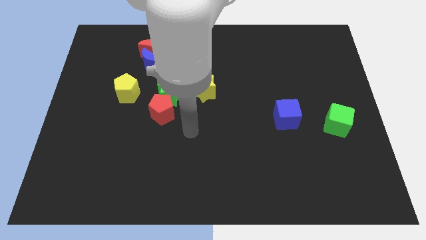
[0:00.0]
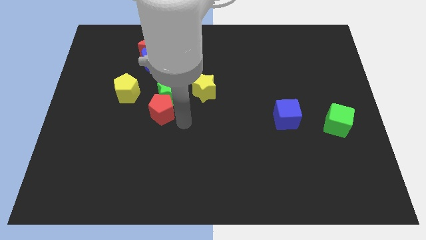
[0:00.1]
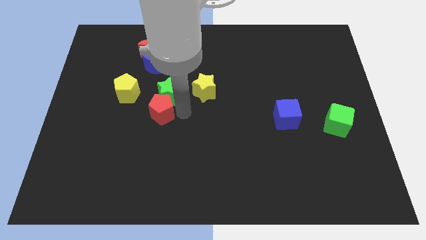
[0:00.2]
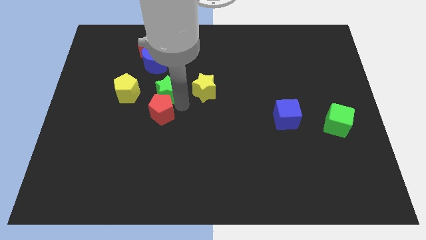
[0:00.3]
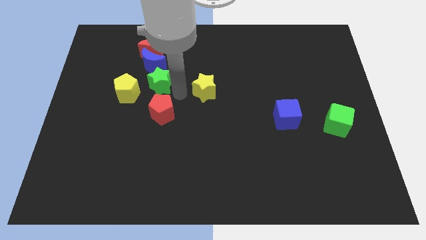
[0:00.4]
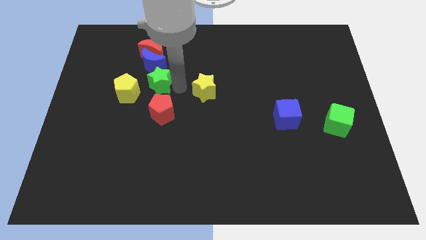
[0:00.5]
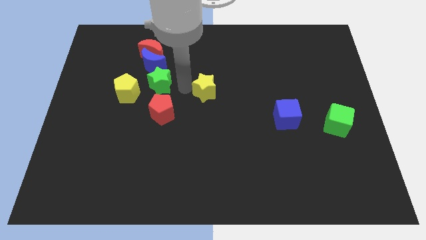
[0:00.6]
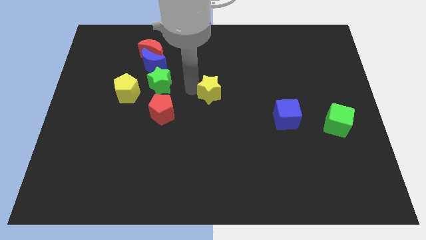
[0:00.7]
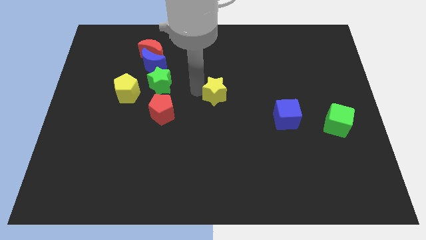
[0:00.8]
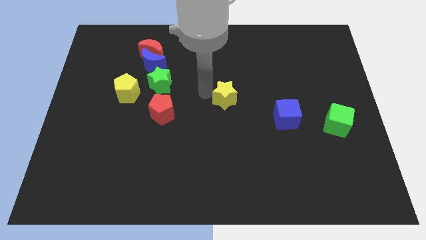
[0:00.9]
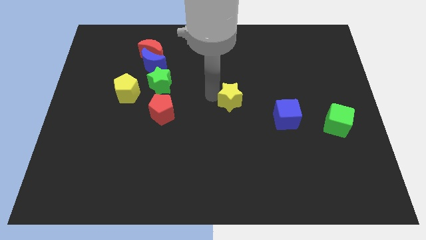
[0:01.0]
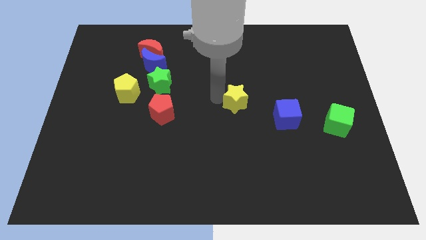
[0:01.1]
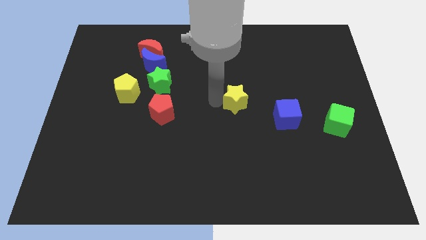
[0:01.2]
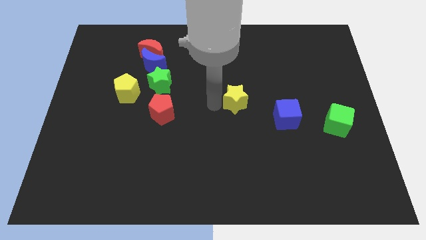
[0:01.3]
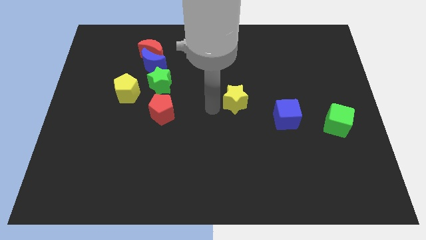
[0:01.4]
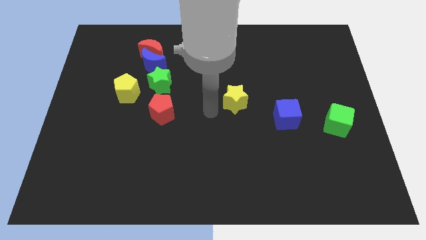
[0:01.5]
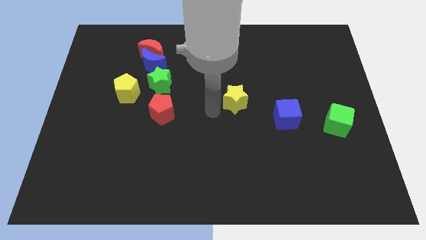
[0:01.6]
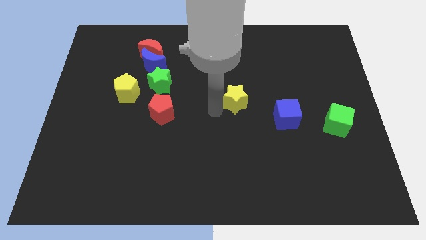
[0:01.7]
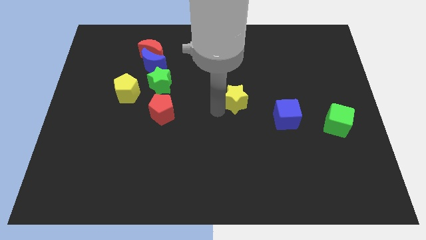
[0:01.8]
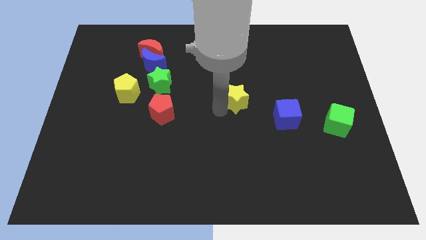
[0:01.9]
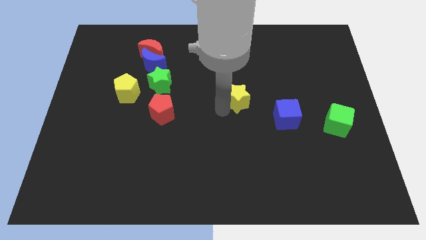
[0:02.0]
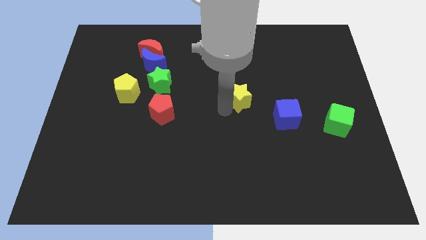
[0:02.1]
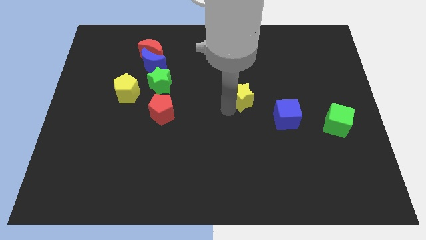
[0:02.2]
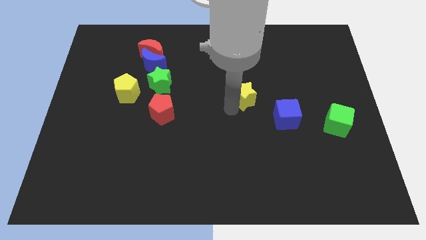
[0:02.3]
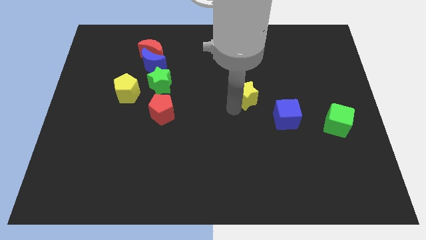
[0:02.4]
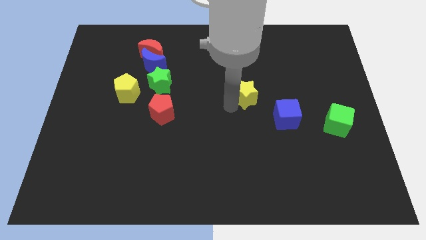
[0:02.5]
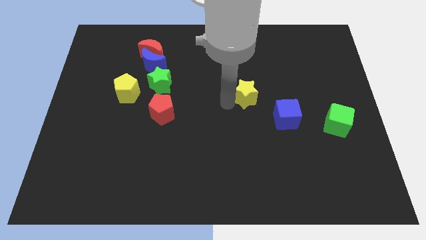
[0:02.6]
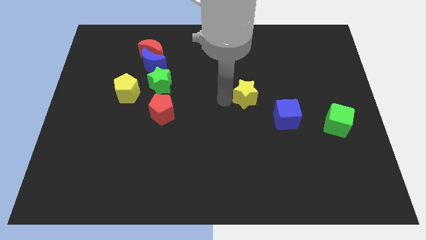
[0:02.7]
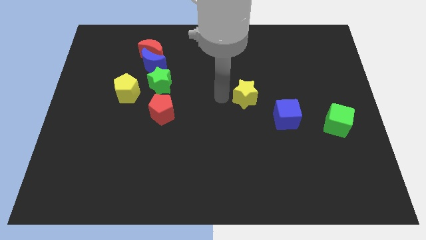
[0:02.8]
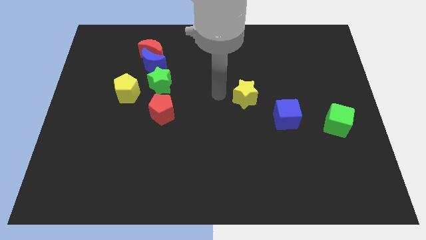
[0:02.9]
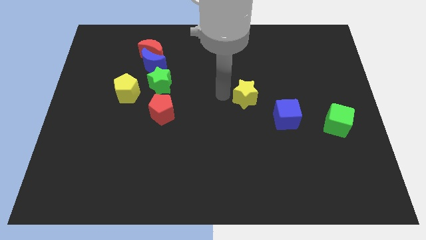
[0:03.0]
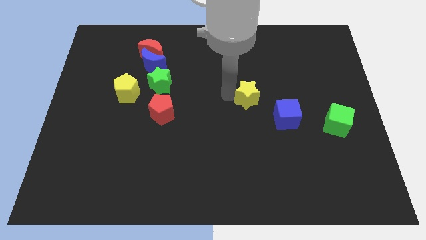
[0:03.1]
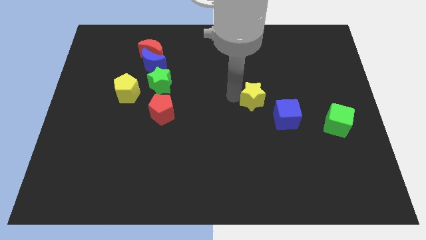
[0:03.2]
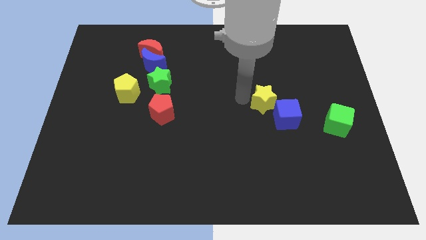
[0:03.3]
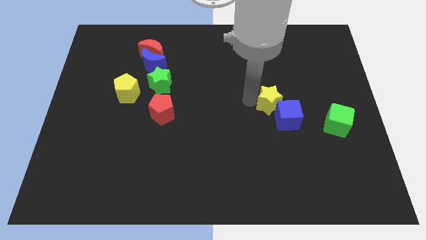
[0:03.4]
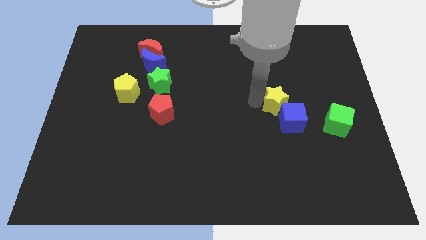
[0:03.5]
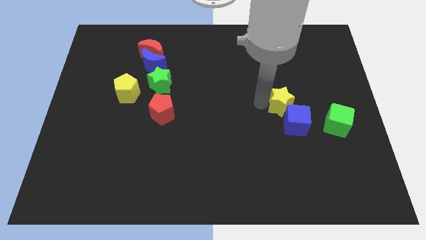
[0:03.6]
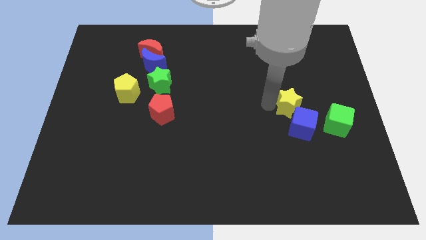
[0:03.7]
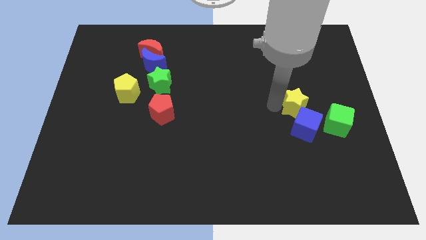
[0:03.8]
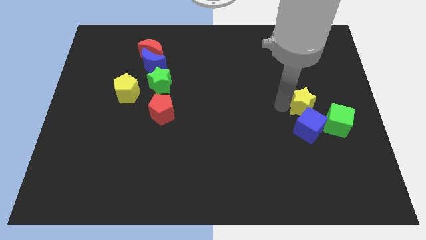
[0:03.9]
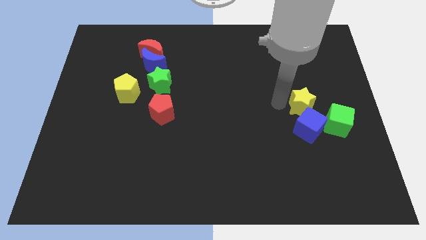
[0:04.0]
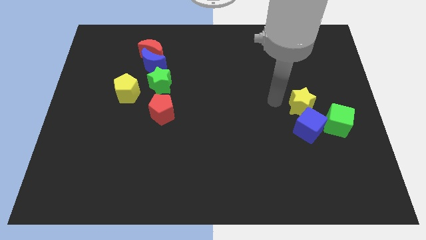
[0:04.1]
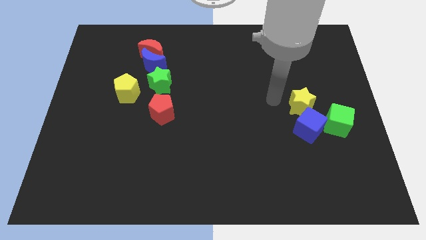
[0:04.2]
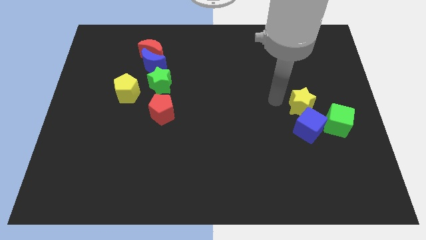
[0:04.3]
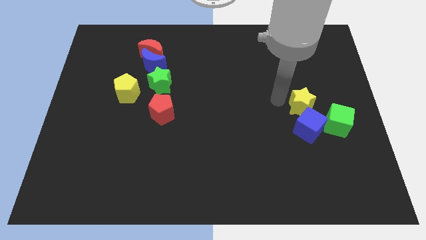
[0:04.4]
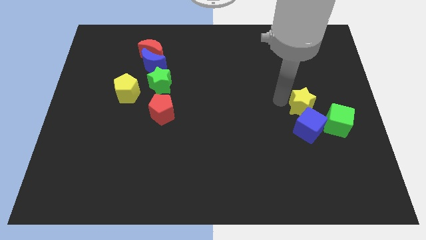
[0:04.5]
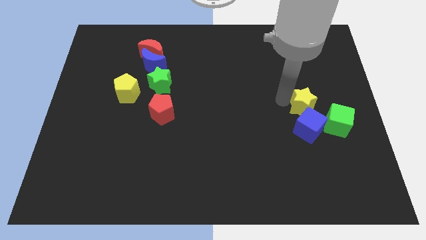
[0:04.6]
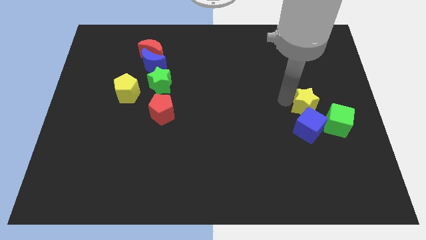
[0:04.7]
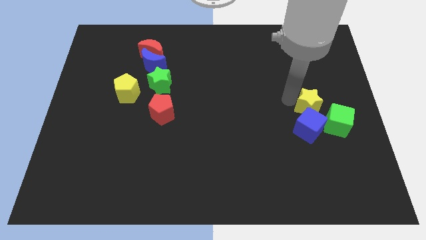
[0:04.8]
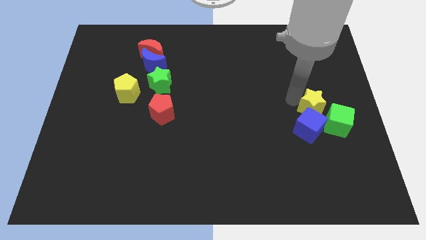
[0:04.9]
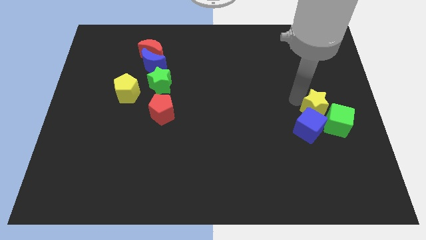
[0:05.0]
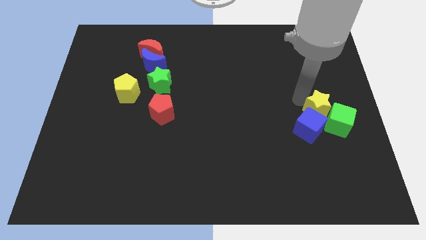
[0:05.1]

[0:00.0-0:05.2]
slide the yellow star to the green cube

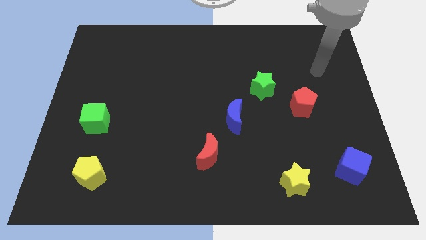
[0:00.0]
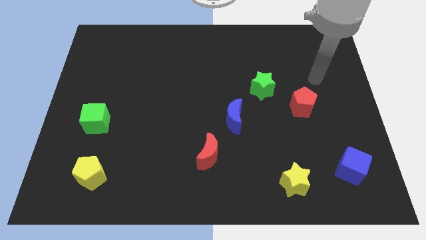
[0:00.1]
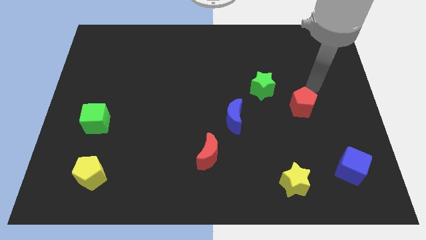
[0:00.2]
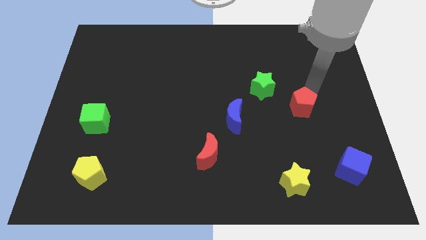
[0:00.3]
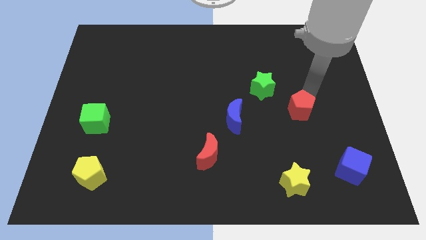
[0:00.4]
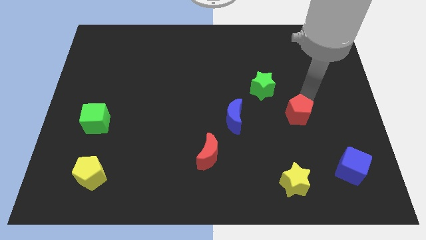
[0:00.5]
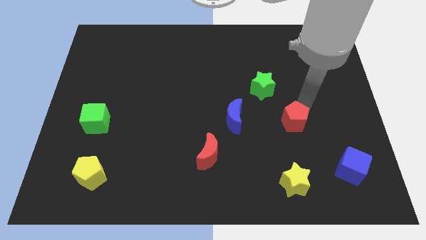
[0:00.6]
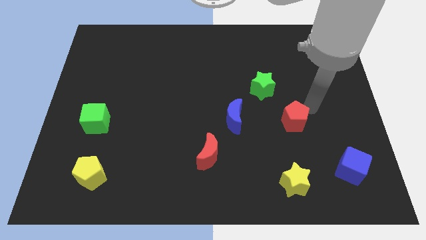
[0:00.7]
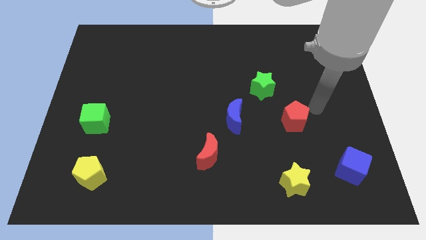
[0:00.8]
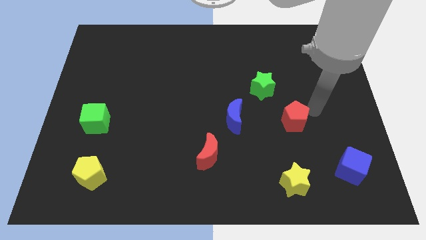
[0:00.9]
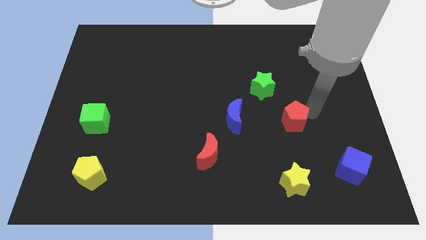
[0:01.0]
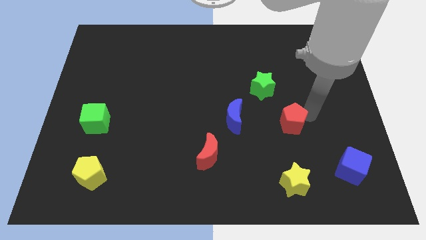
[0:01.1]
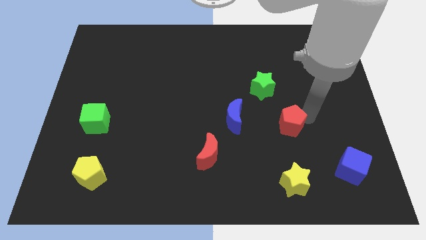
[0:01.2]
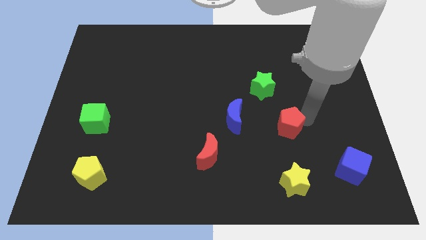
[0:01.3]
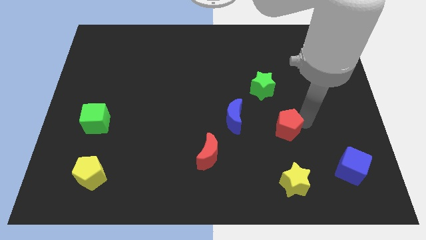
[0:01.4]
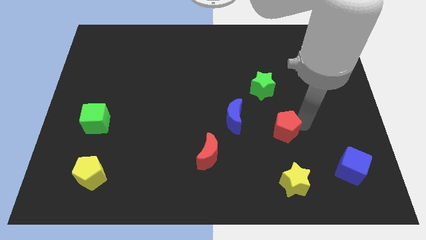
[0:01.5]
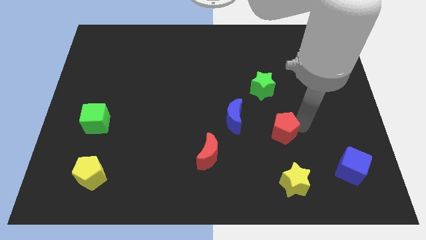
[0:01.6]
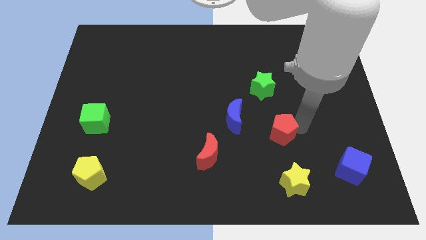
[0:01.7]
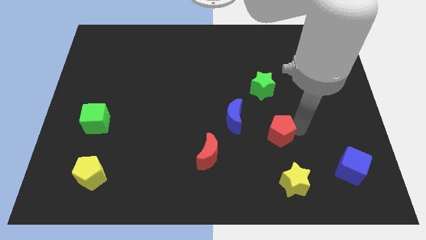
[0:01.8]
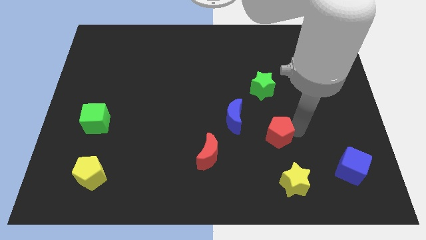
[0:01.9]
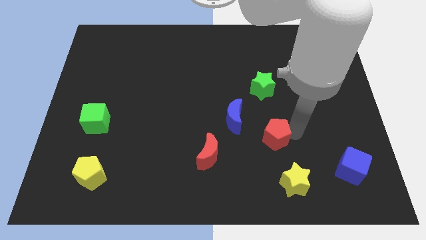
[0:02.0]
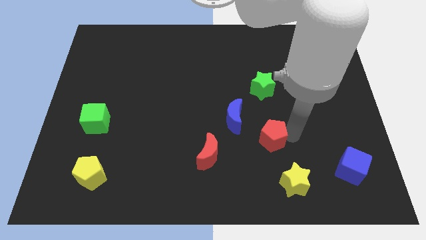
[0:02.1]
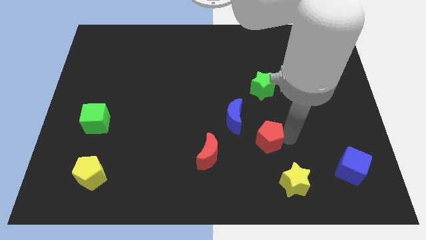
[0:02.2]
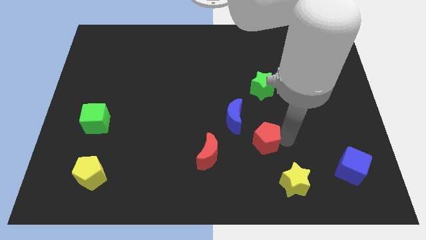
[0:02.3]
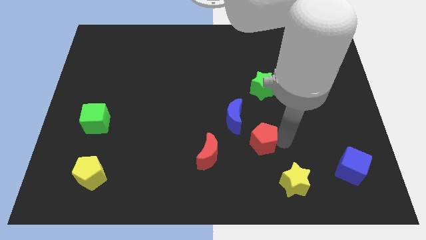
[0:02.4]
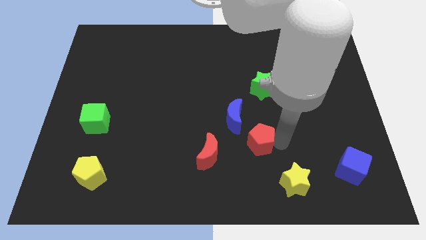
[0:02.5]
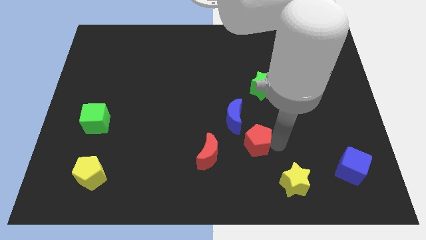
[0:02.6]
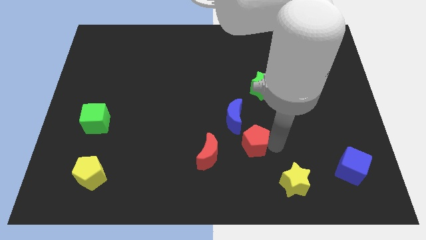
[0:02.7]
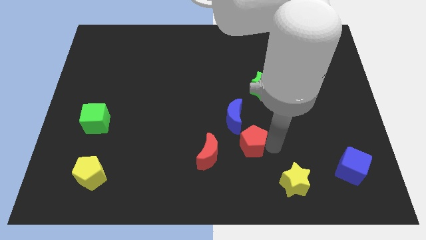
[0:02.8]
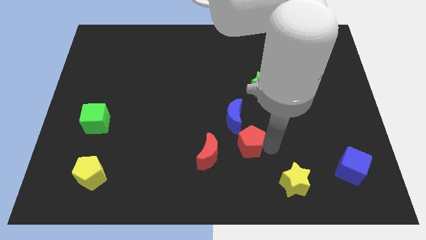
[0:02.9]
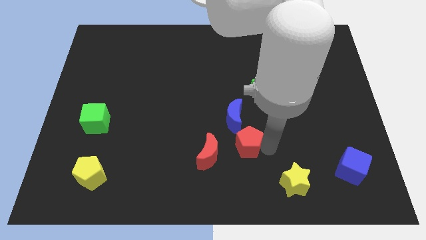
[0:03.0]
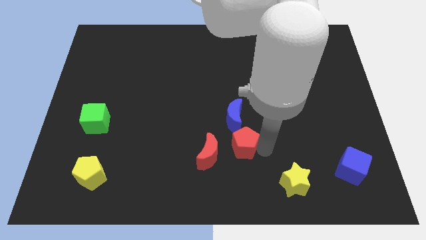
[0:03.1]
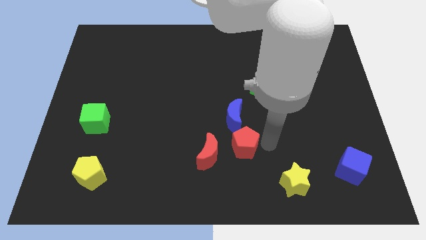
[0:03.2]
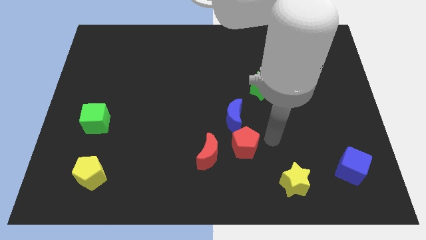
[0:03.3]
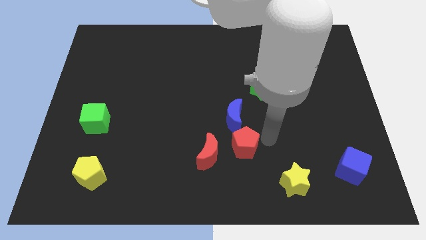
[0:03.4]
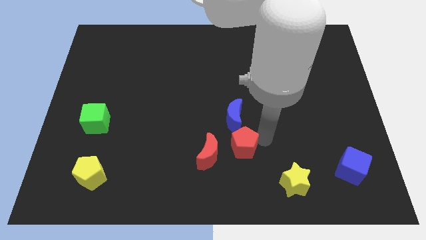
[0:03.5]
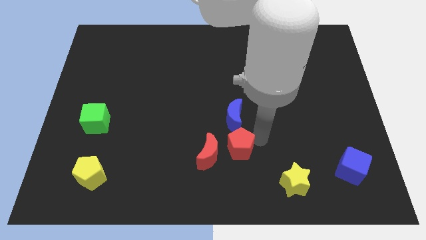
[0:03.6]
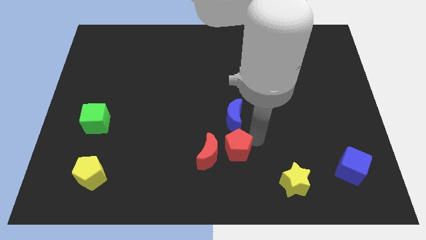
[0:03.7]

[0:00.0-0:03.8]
slide the red pentagon towards the red moon
